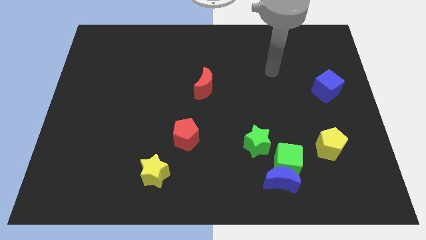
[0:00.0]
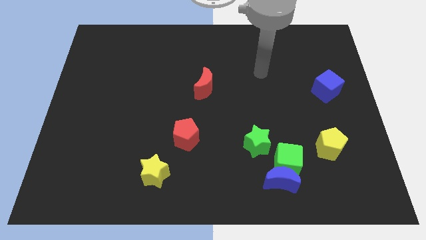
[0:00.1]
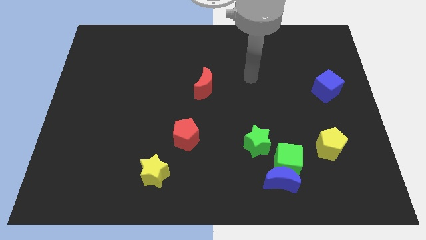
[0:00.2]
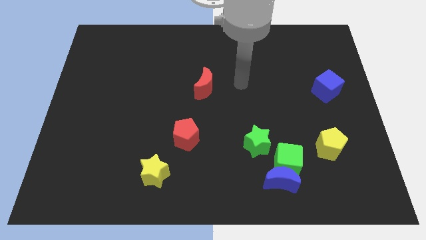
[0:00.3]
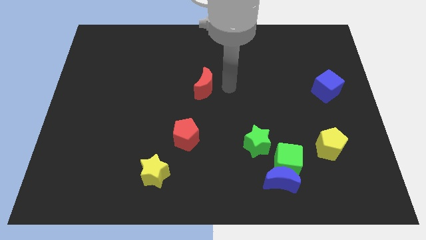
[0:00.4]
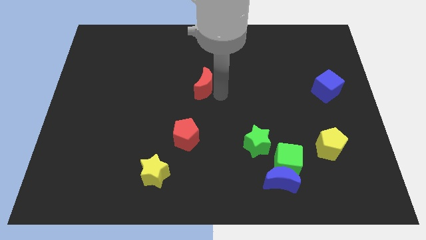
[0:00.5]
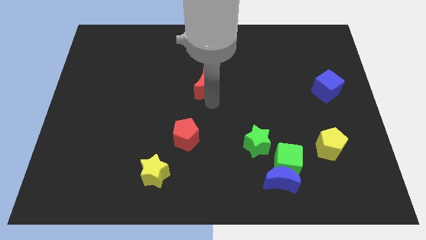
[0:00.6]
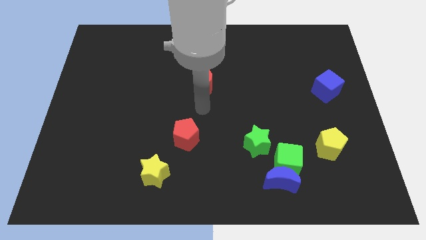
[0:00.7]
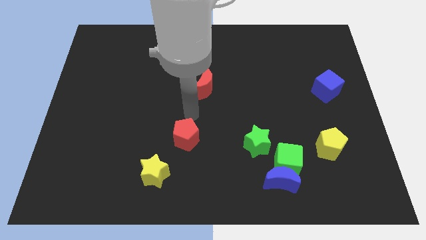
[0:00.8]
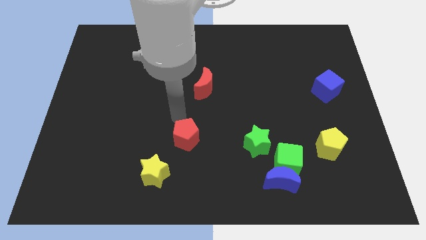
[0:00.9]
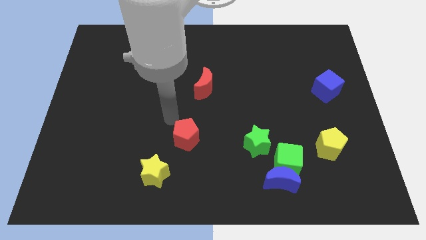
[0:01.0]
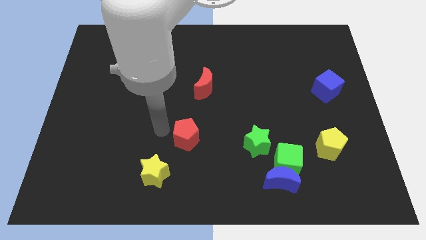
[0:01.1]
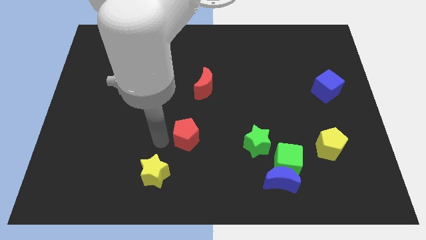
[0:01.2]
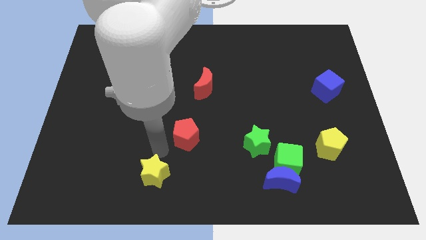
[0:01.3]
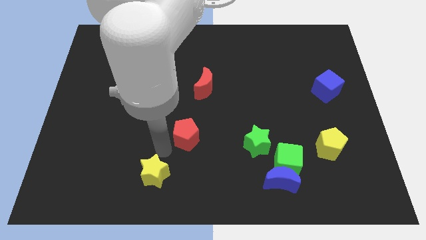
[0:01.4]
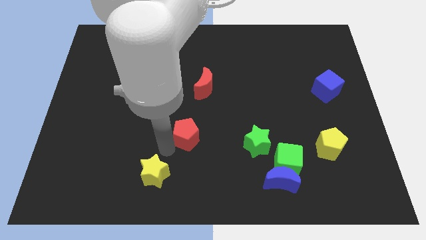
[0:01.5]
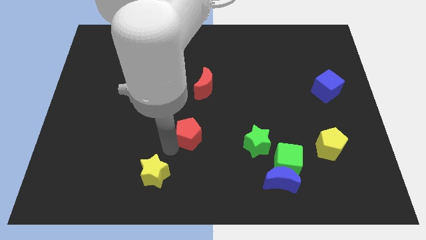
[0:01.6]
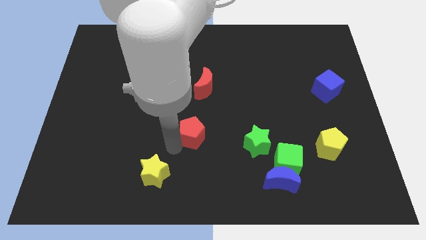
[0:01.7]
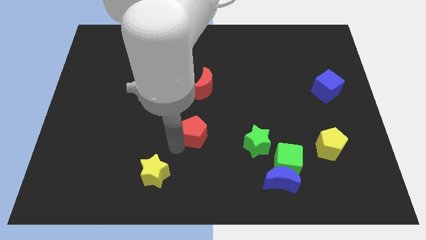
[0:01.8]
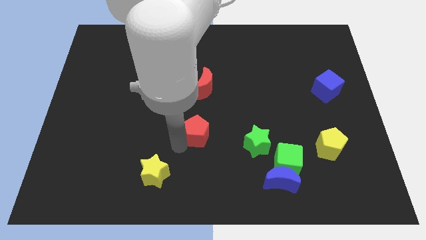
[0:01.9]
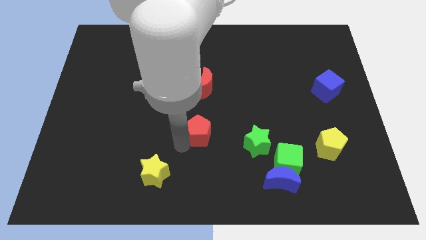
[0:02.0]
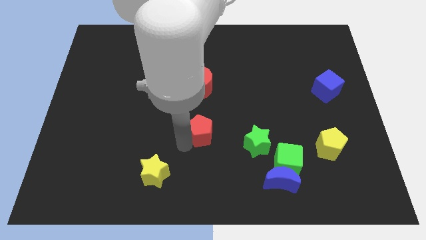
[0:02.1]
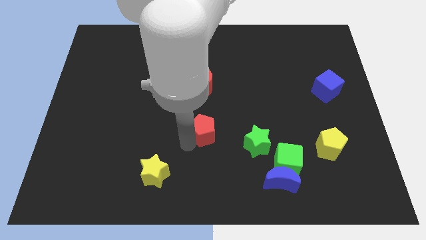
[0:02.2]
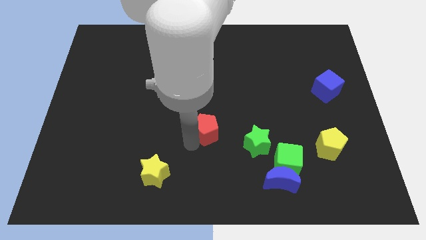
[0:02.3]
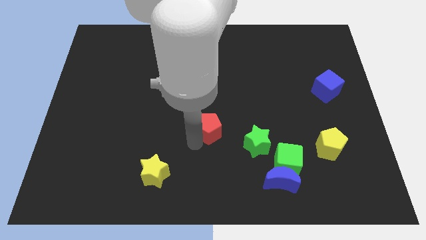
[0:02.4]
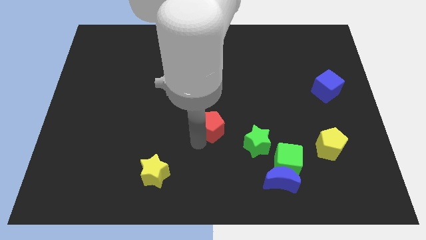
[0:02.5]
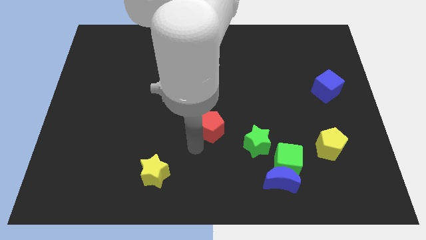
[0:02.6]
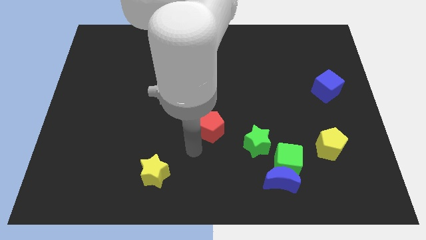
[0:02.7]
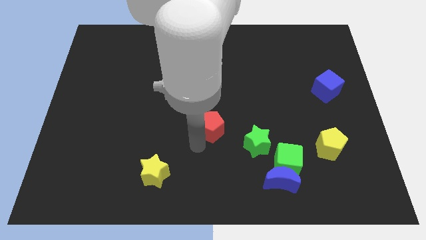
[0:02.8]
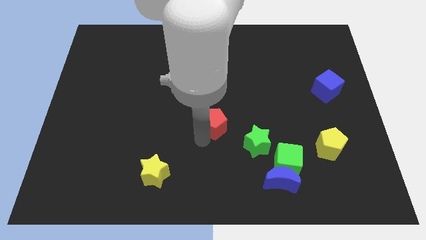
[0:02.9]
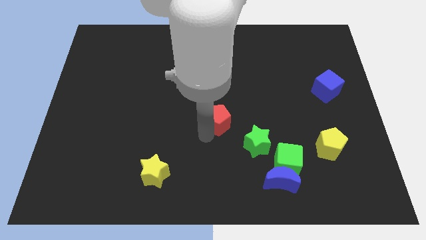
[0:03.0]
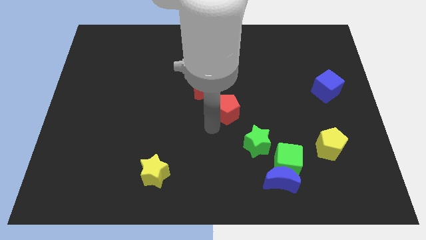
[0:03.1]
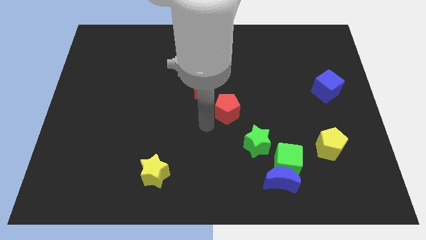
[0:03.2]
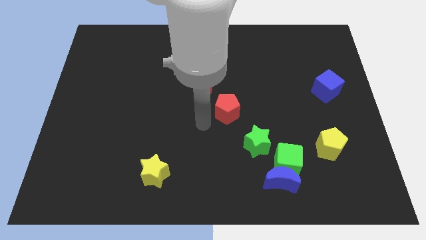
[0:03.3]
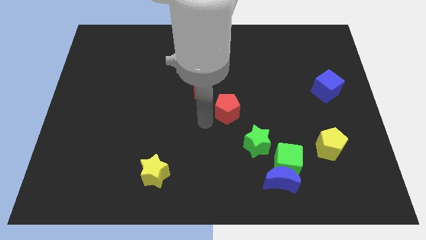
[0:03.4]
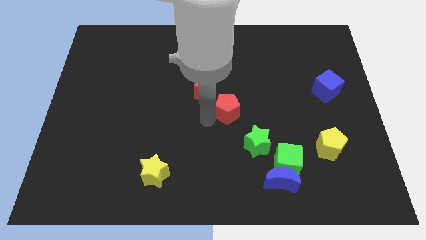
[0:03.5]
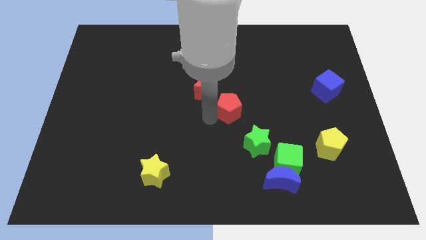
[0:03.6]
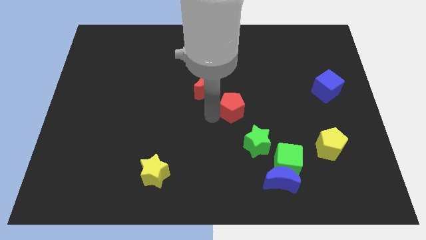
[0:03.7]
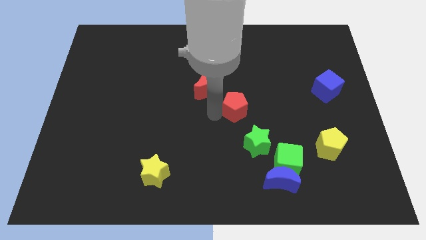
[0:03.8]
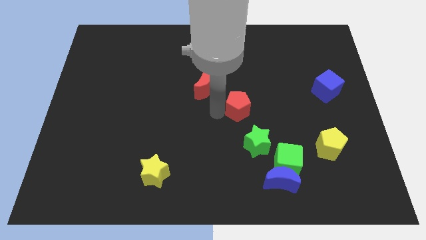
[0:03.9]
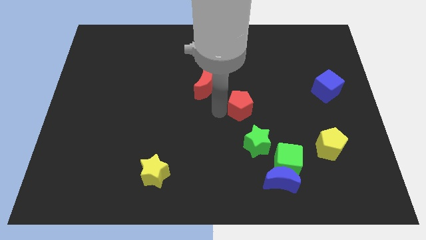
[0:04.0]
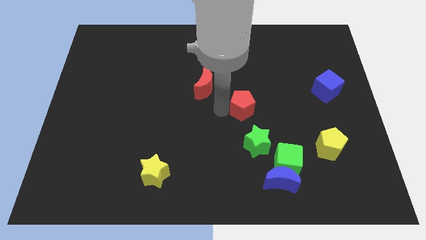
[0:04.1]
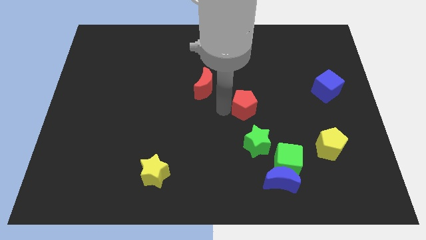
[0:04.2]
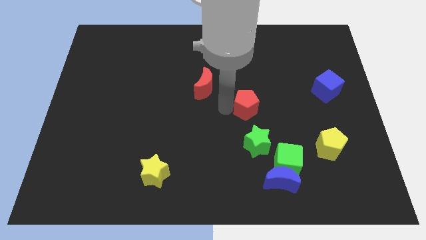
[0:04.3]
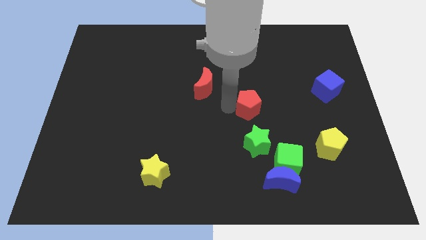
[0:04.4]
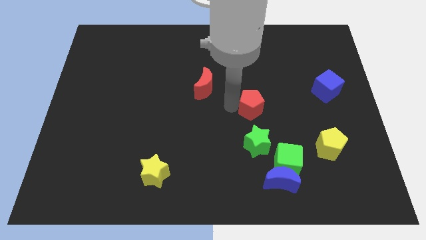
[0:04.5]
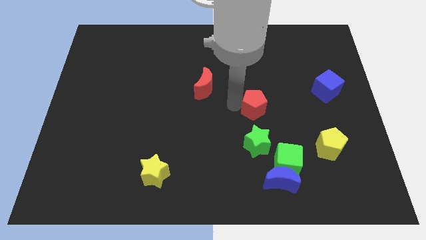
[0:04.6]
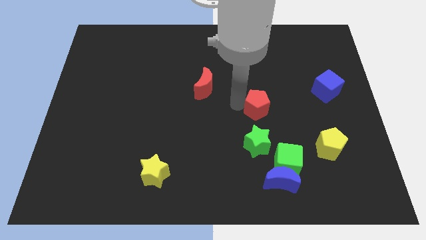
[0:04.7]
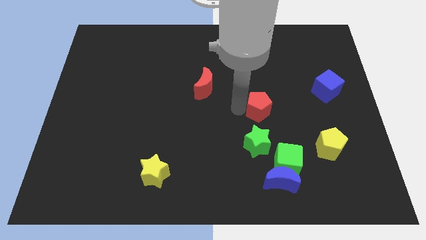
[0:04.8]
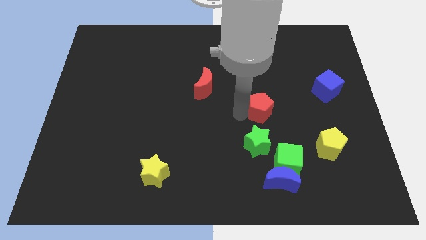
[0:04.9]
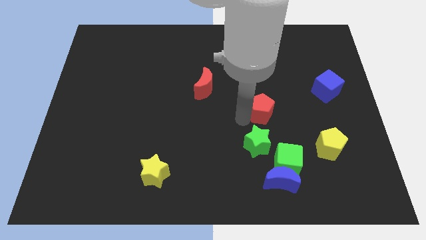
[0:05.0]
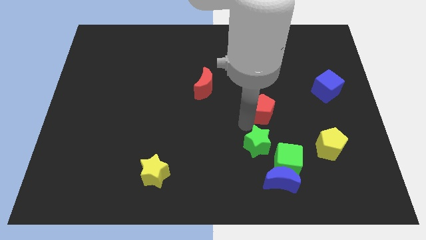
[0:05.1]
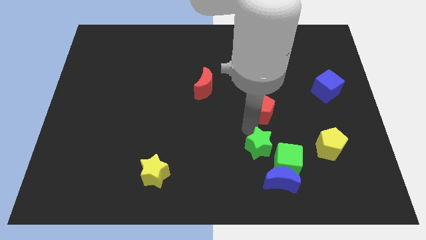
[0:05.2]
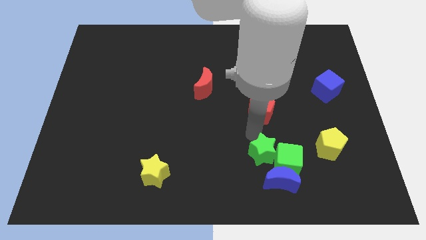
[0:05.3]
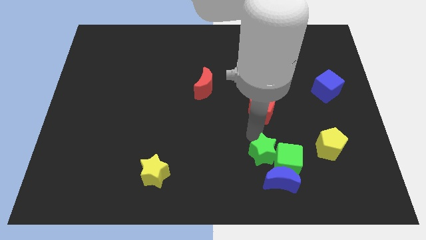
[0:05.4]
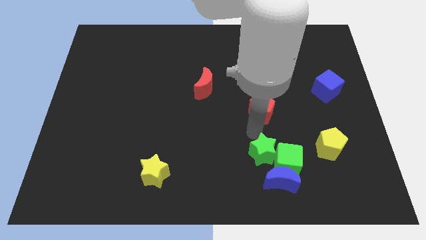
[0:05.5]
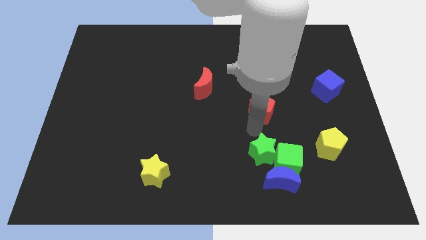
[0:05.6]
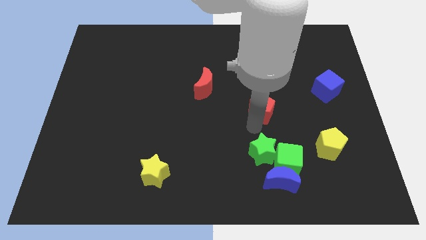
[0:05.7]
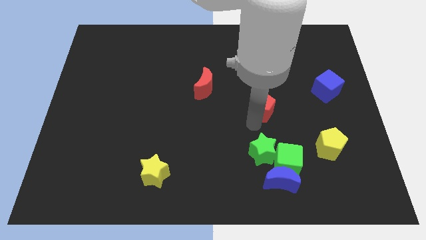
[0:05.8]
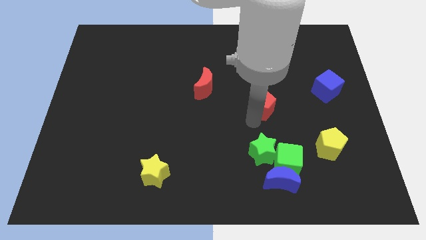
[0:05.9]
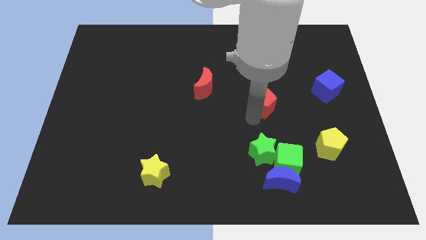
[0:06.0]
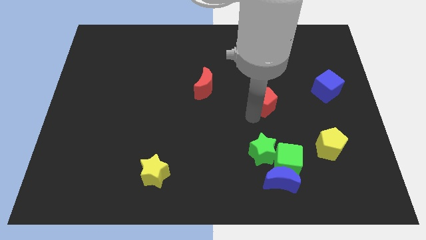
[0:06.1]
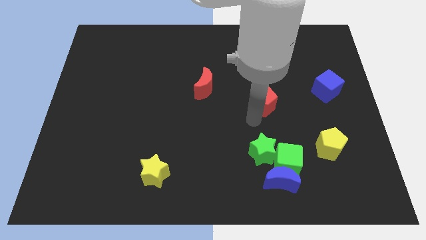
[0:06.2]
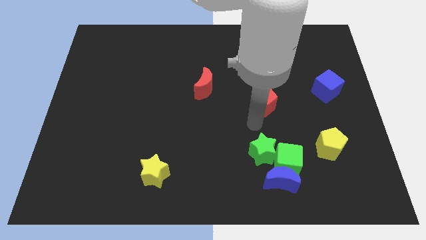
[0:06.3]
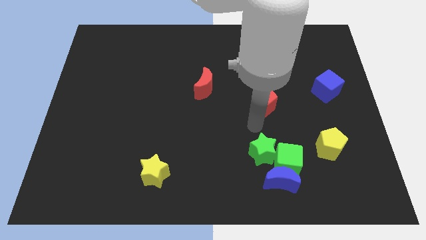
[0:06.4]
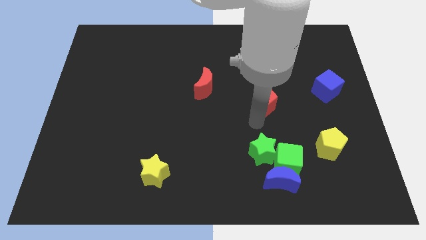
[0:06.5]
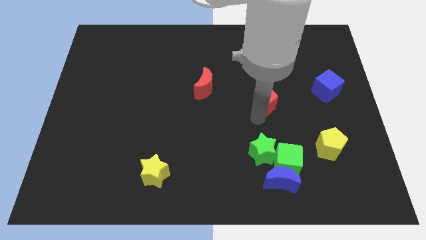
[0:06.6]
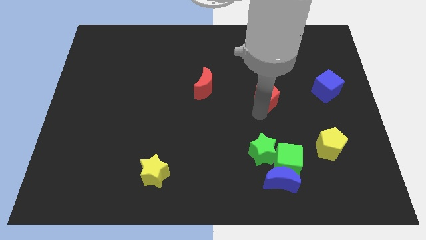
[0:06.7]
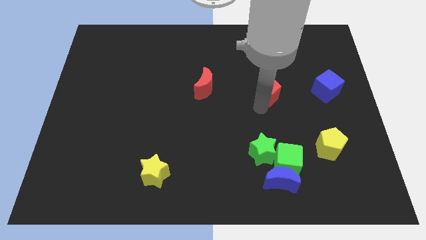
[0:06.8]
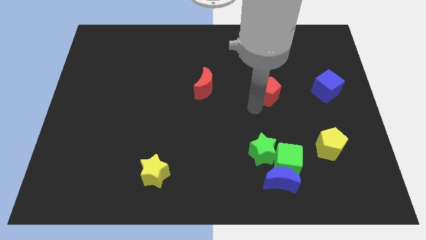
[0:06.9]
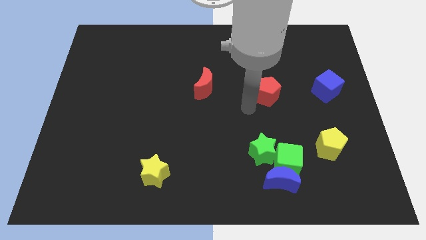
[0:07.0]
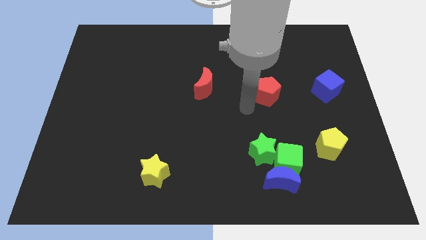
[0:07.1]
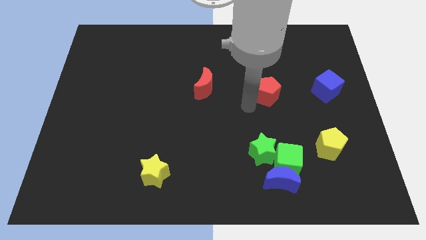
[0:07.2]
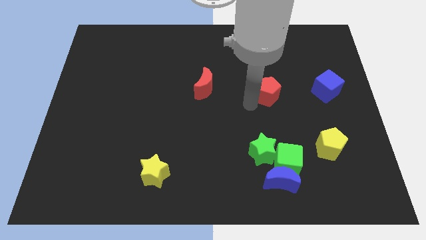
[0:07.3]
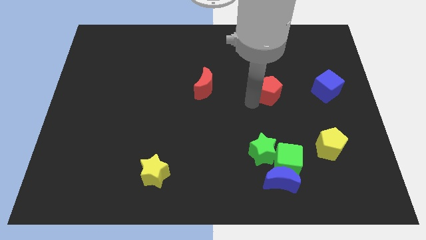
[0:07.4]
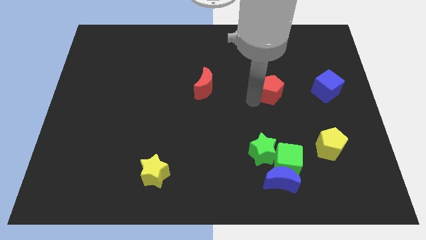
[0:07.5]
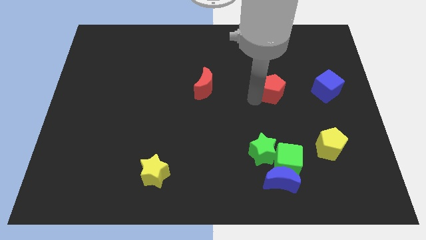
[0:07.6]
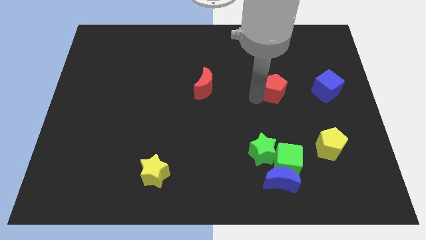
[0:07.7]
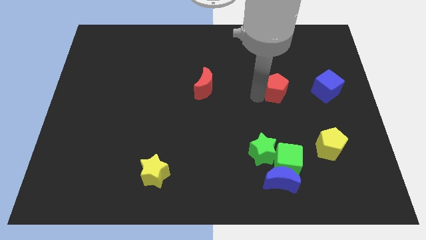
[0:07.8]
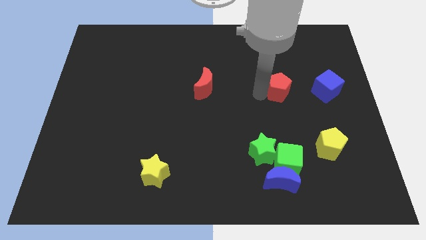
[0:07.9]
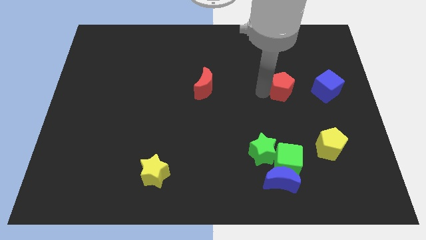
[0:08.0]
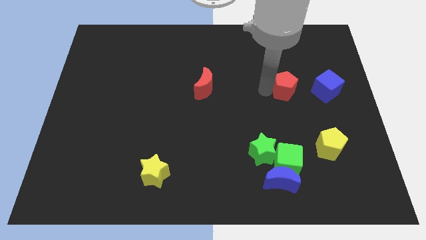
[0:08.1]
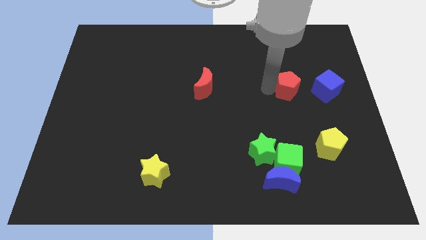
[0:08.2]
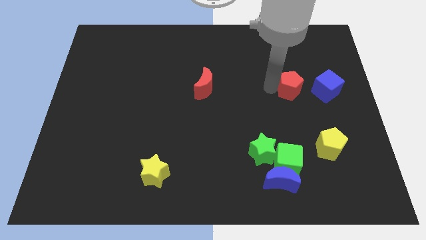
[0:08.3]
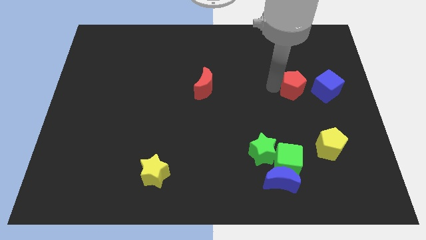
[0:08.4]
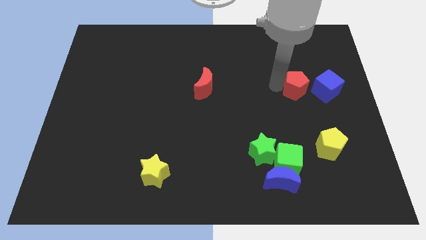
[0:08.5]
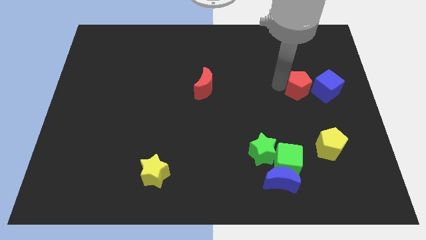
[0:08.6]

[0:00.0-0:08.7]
slide the red pentagon diagonally up and to the left of the blue cube

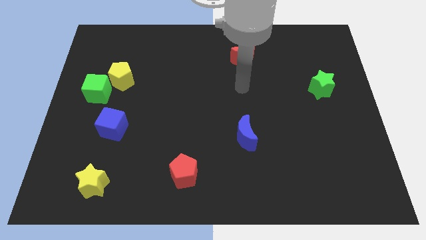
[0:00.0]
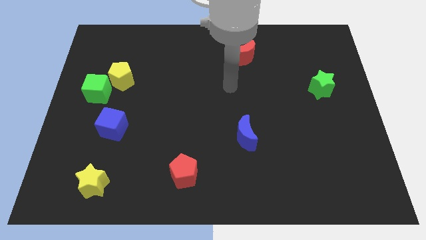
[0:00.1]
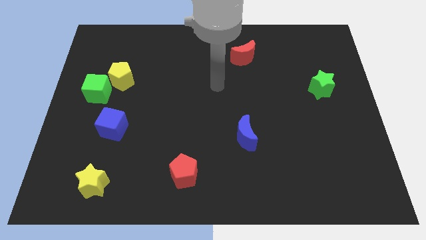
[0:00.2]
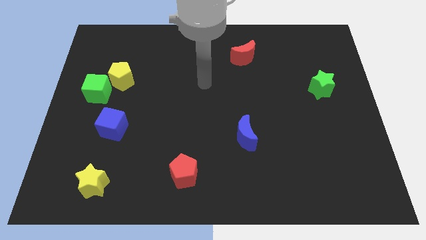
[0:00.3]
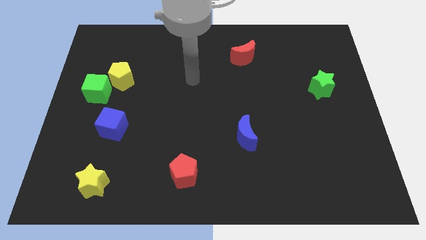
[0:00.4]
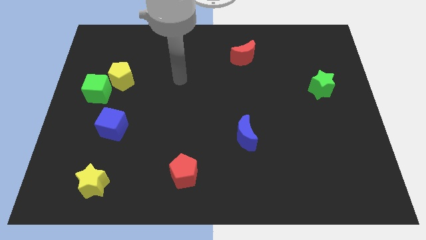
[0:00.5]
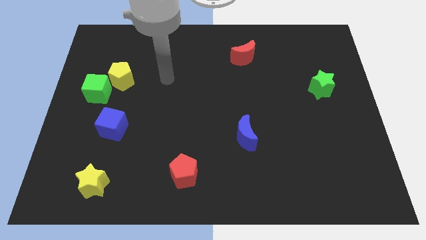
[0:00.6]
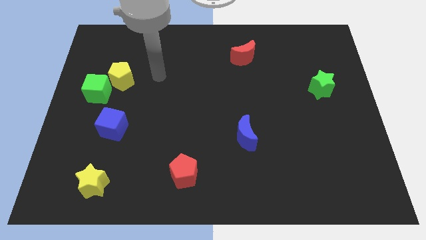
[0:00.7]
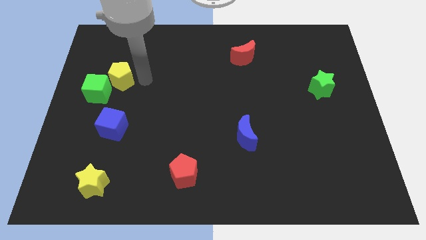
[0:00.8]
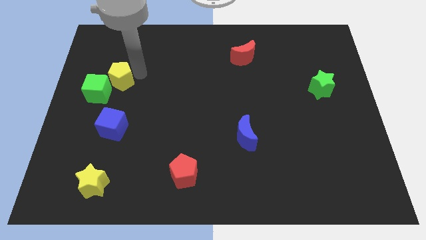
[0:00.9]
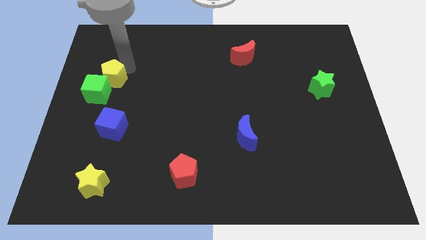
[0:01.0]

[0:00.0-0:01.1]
put the green cube below the yellow pentagon
